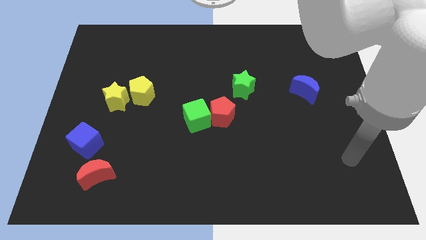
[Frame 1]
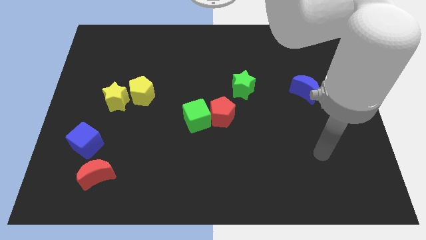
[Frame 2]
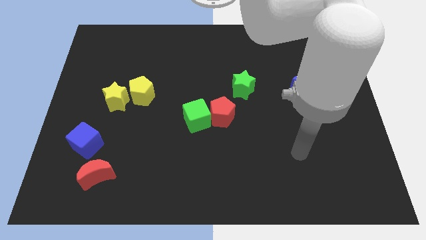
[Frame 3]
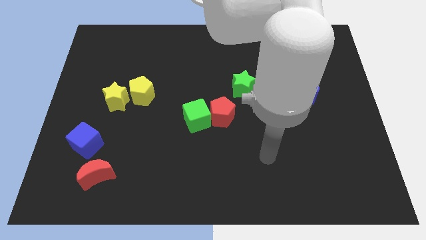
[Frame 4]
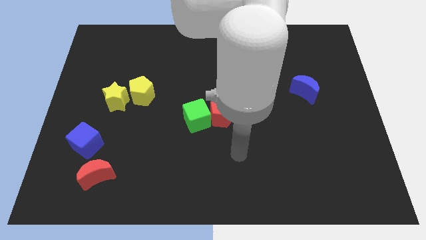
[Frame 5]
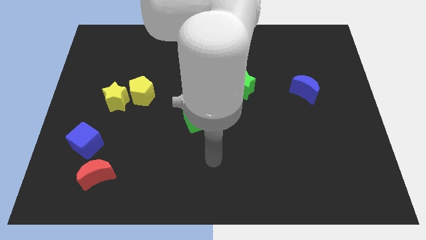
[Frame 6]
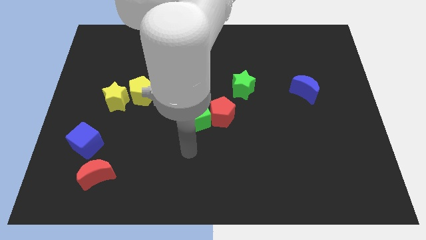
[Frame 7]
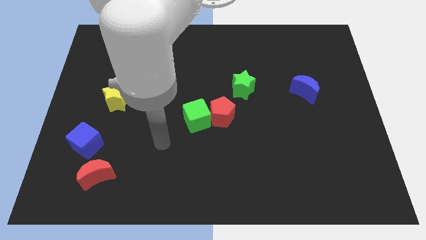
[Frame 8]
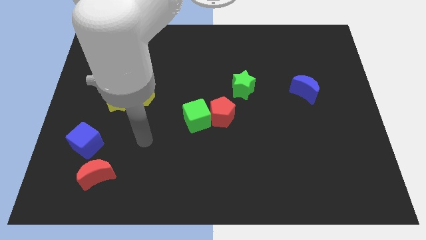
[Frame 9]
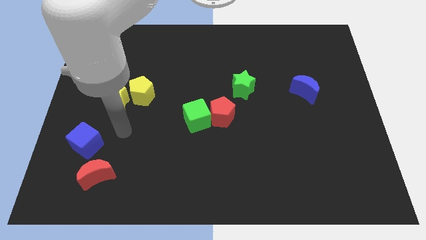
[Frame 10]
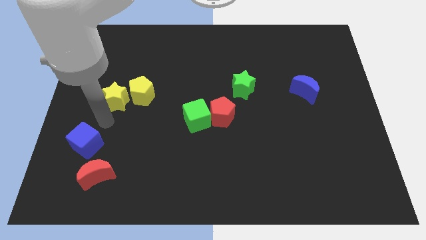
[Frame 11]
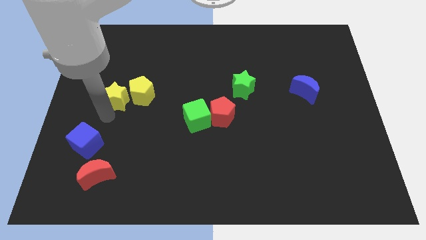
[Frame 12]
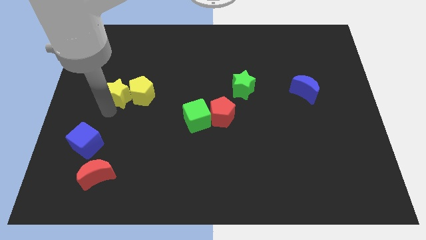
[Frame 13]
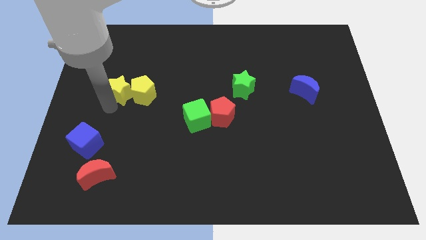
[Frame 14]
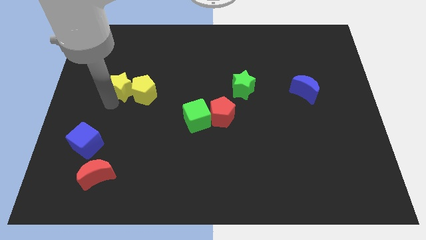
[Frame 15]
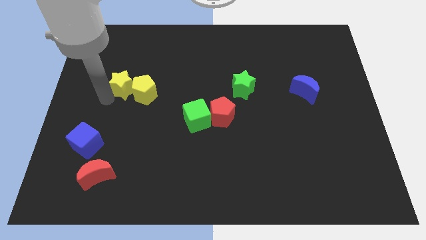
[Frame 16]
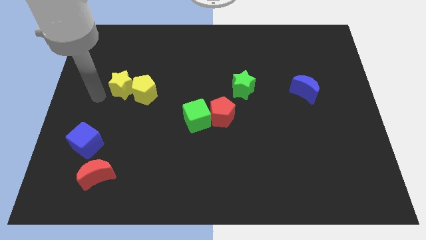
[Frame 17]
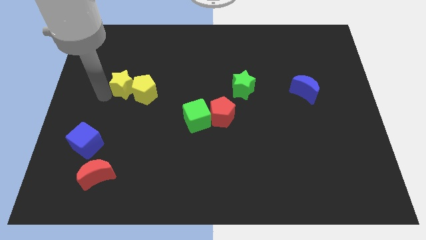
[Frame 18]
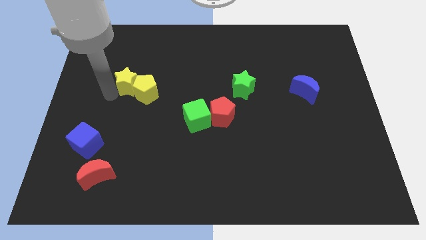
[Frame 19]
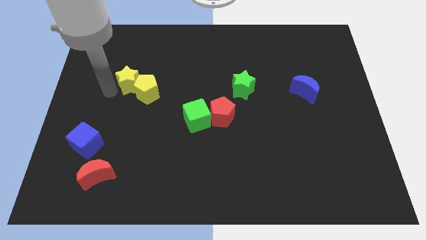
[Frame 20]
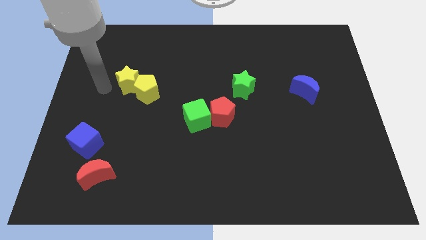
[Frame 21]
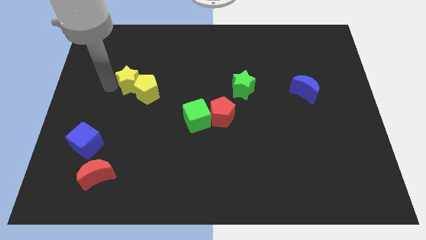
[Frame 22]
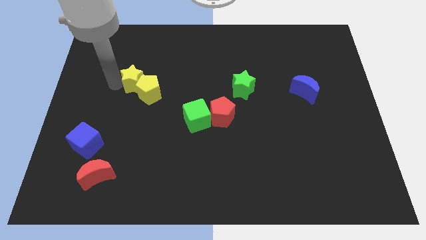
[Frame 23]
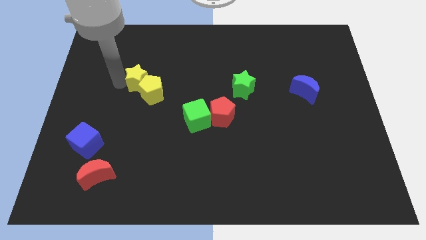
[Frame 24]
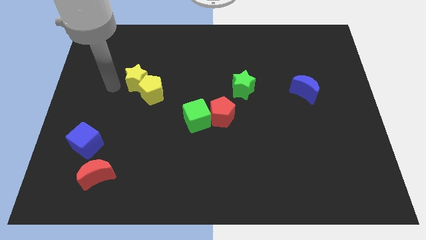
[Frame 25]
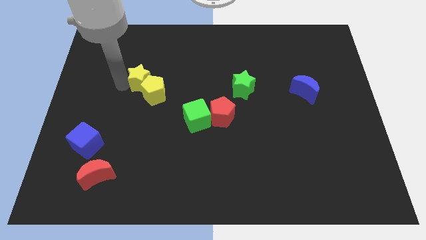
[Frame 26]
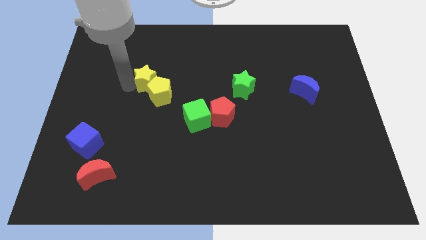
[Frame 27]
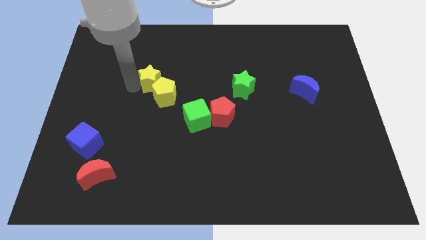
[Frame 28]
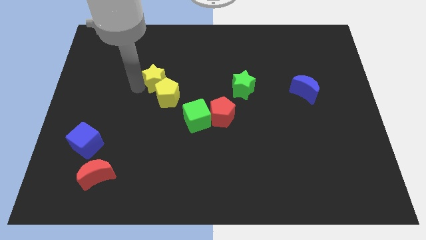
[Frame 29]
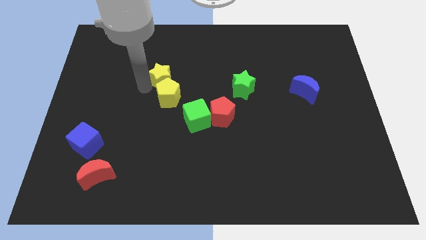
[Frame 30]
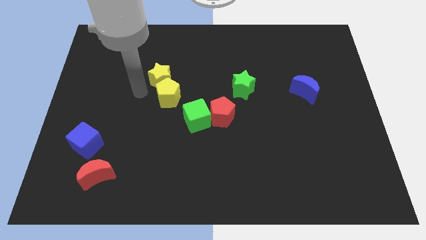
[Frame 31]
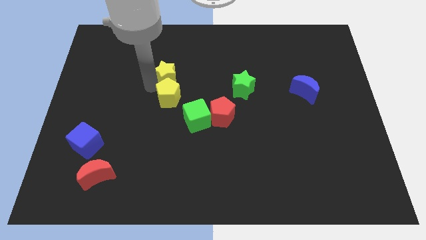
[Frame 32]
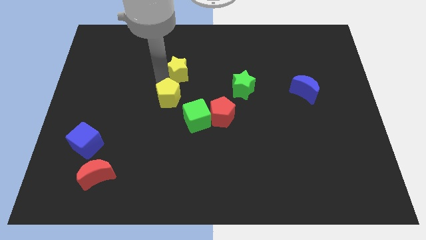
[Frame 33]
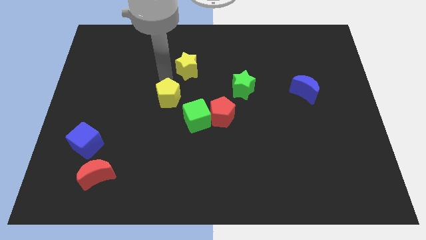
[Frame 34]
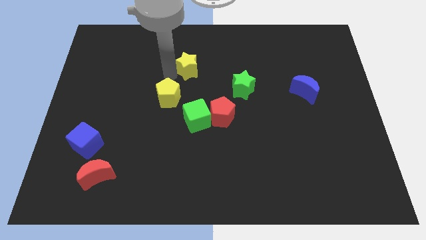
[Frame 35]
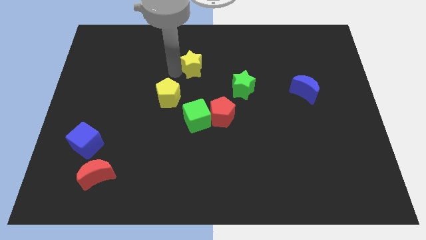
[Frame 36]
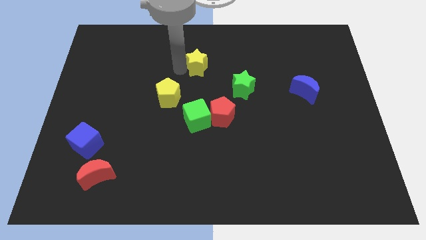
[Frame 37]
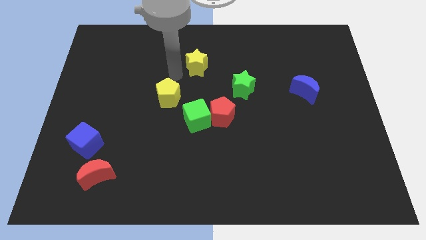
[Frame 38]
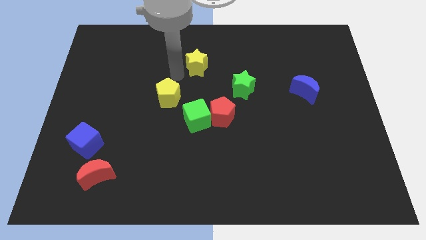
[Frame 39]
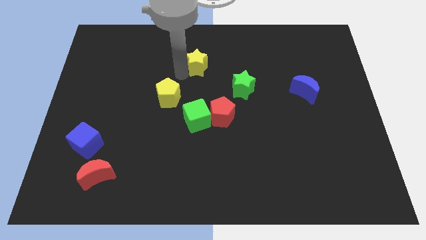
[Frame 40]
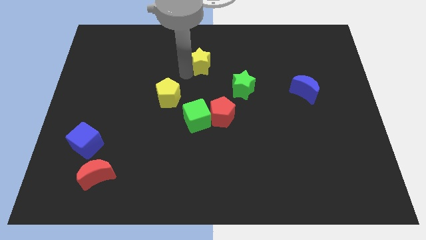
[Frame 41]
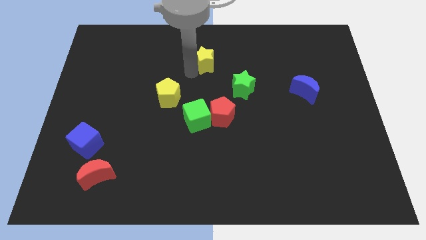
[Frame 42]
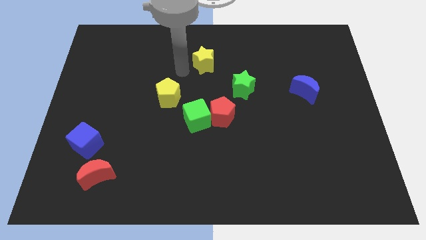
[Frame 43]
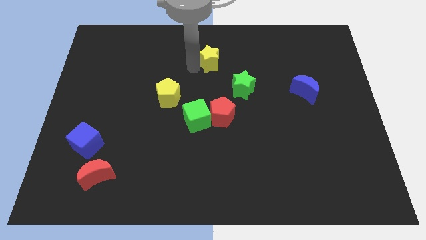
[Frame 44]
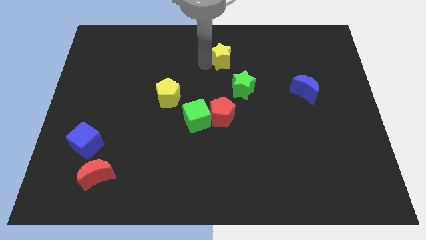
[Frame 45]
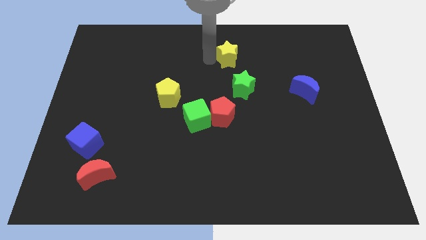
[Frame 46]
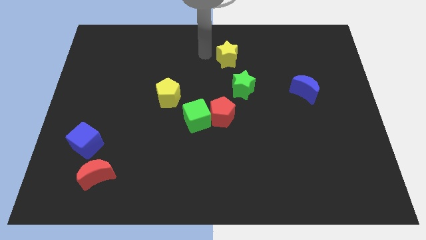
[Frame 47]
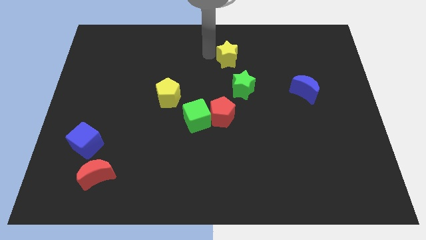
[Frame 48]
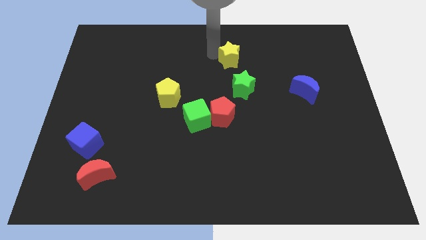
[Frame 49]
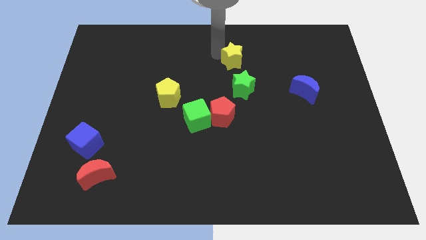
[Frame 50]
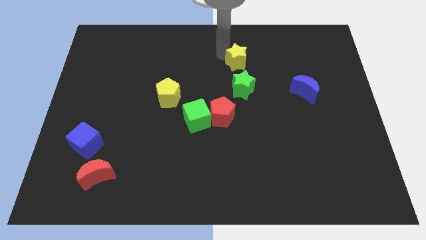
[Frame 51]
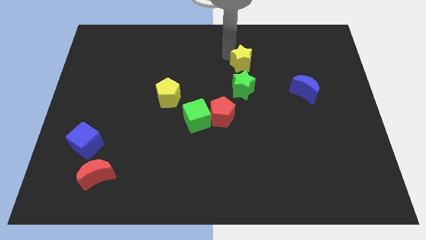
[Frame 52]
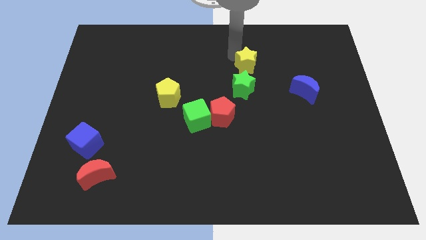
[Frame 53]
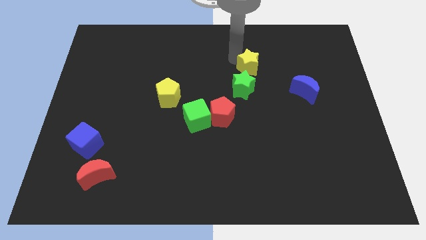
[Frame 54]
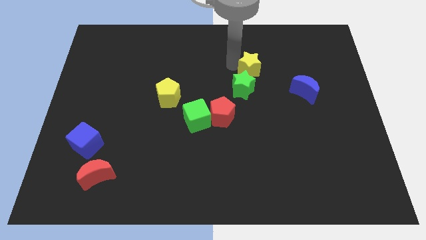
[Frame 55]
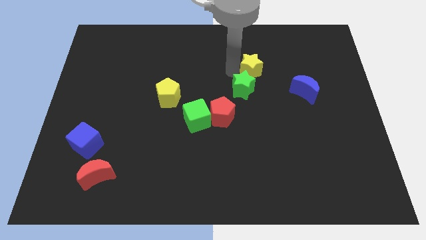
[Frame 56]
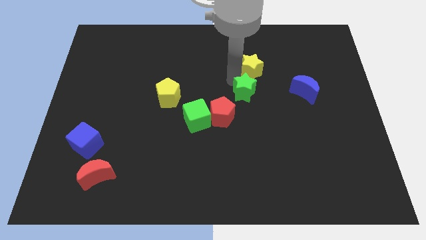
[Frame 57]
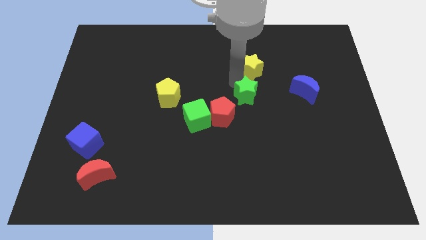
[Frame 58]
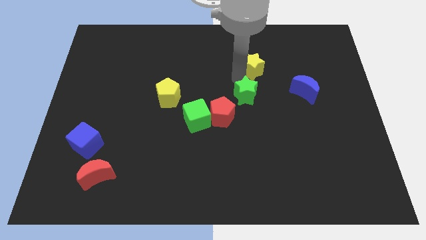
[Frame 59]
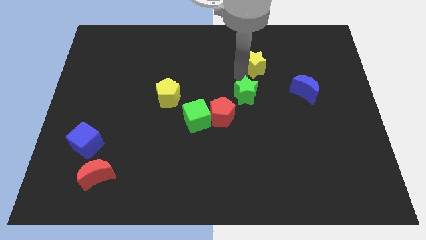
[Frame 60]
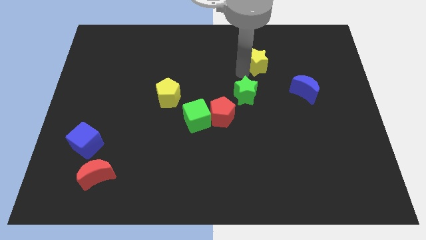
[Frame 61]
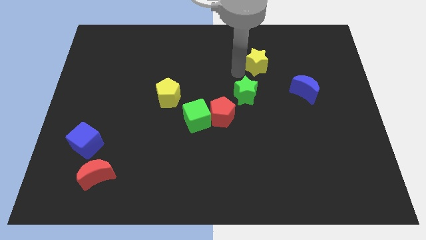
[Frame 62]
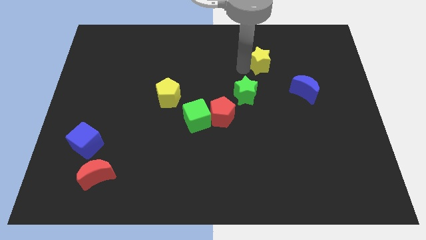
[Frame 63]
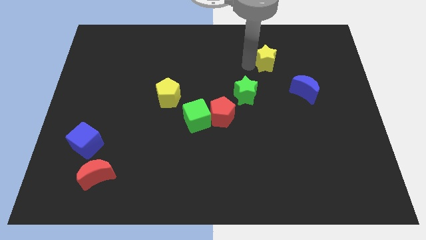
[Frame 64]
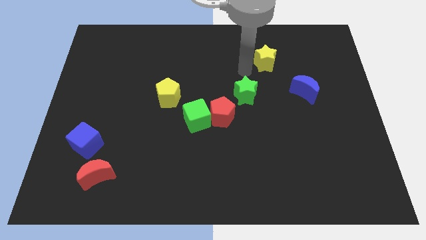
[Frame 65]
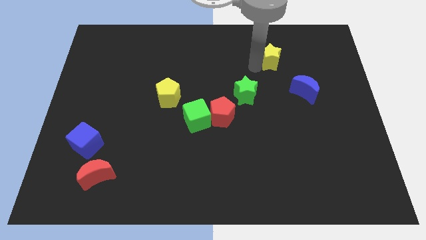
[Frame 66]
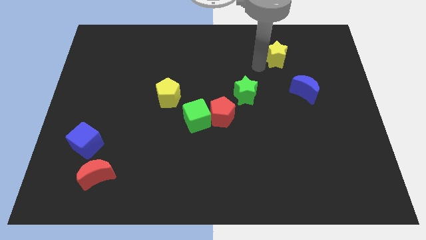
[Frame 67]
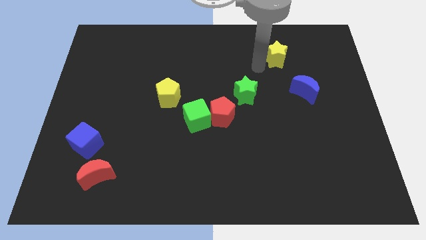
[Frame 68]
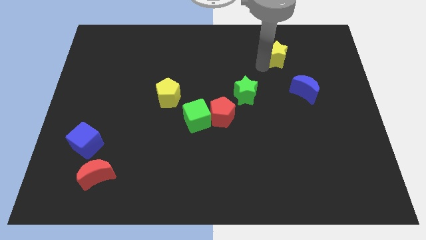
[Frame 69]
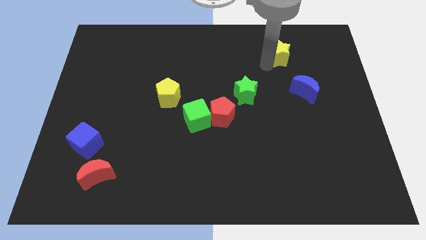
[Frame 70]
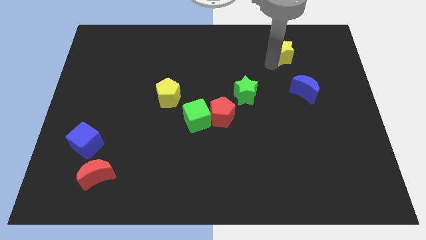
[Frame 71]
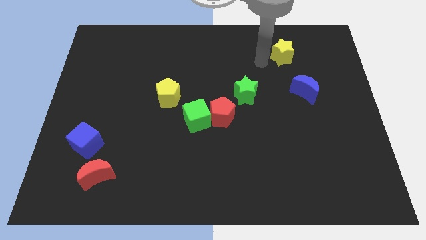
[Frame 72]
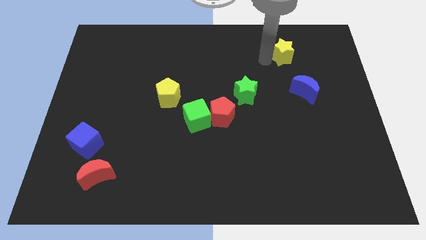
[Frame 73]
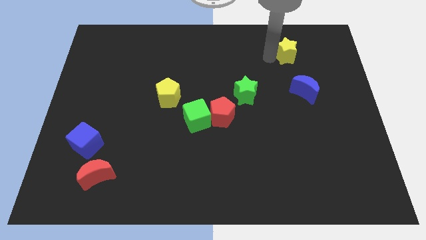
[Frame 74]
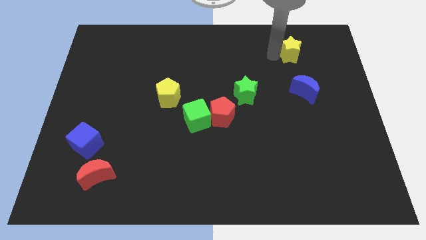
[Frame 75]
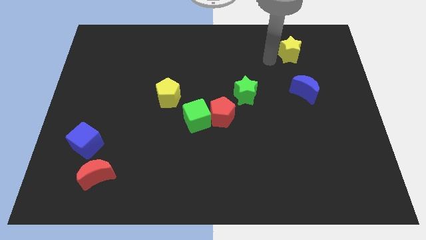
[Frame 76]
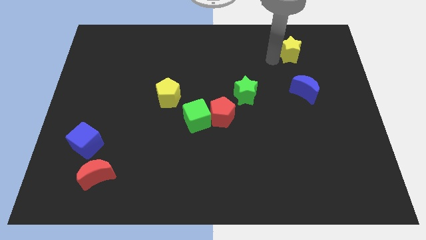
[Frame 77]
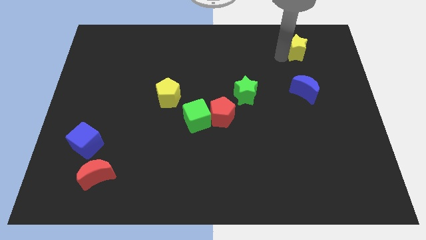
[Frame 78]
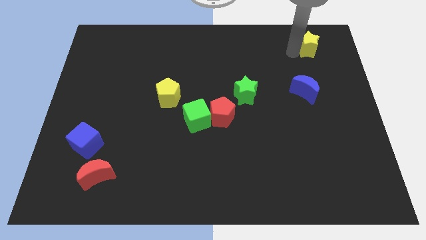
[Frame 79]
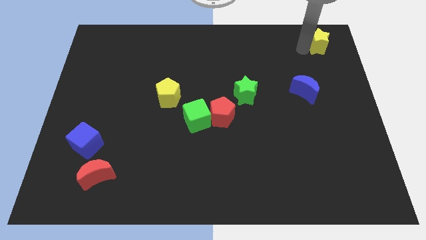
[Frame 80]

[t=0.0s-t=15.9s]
move the yellow star to the top right corner
